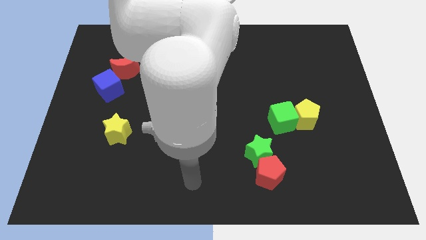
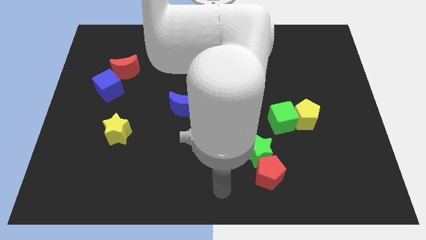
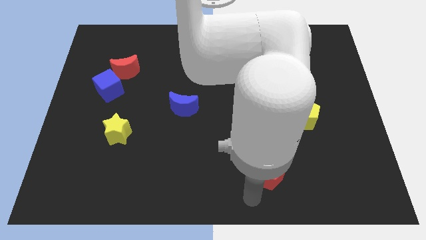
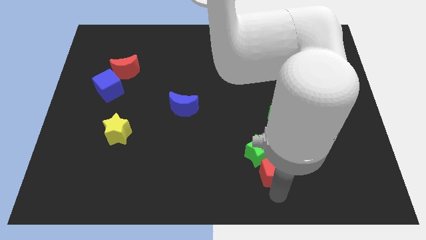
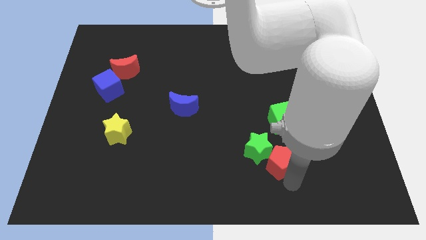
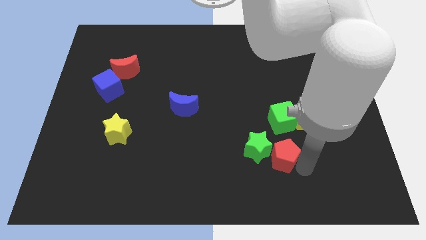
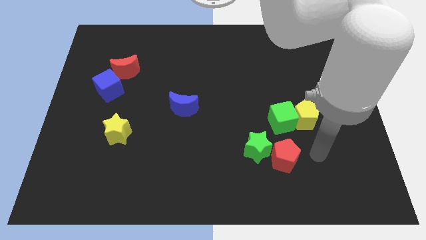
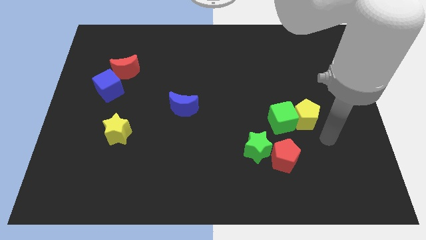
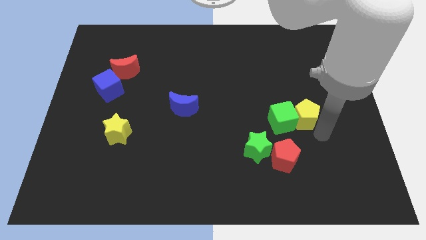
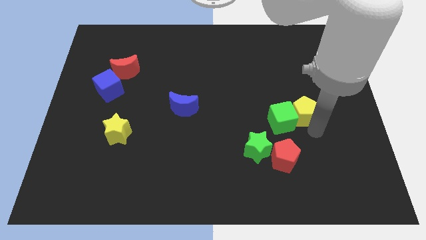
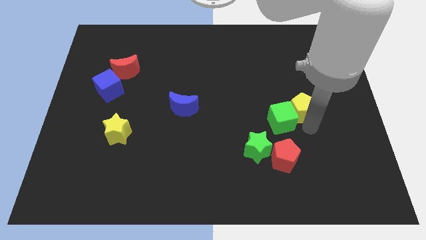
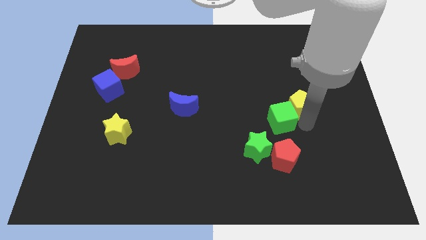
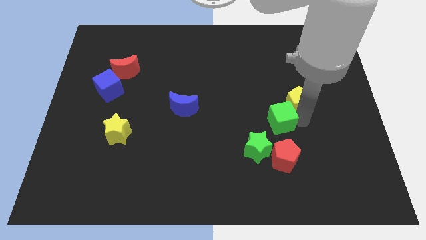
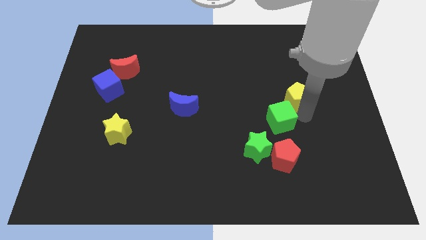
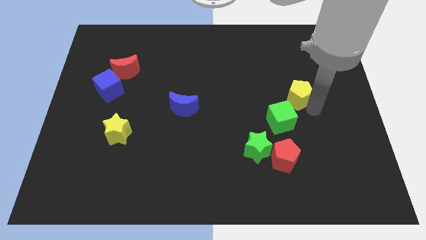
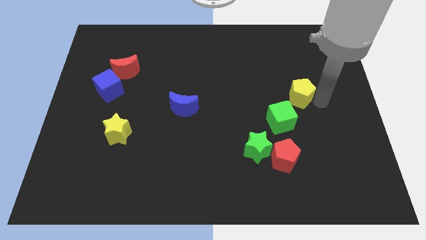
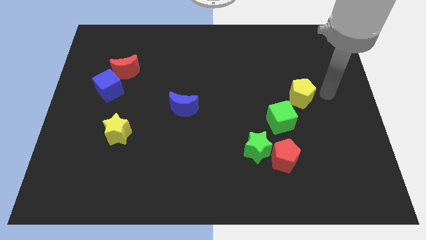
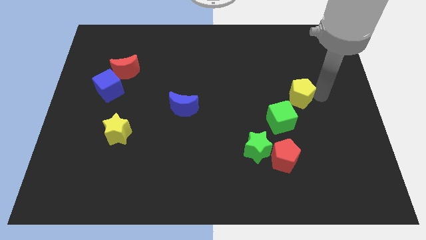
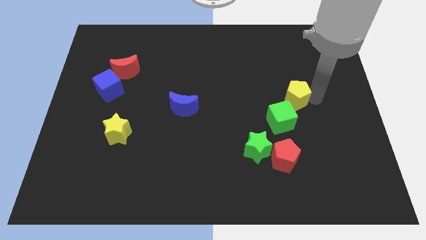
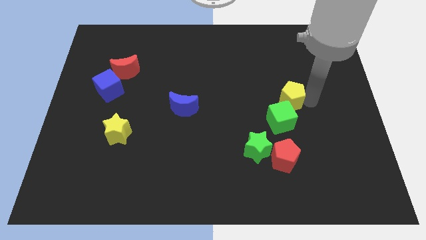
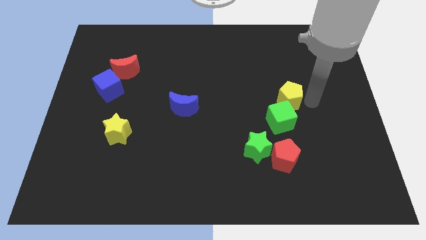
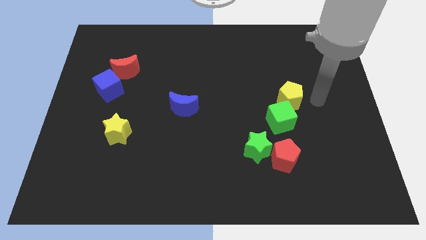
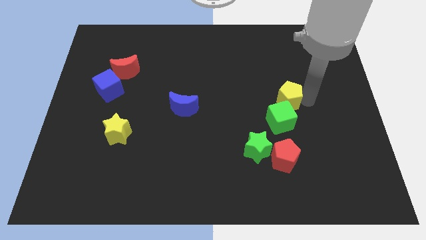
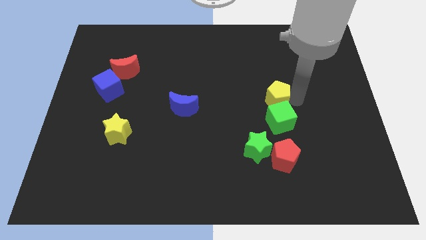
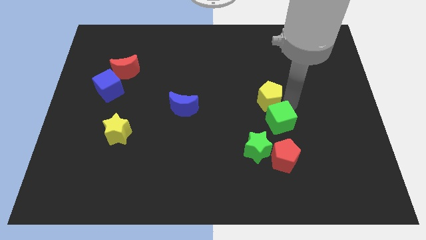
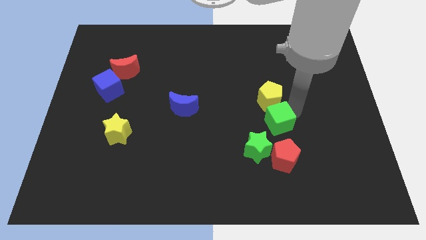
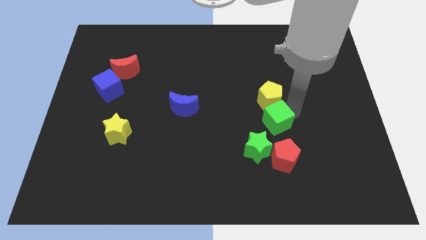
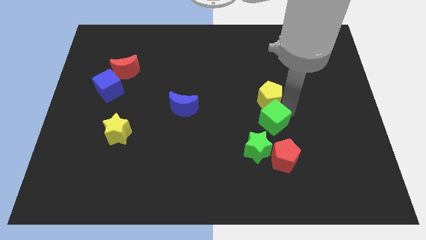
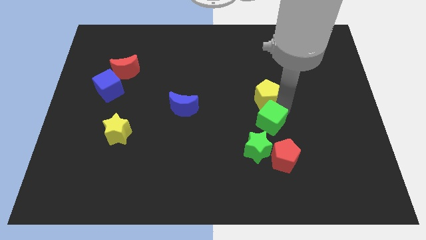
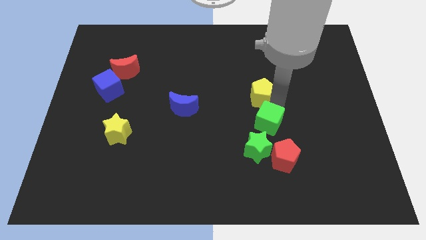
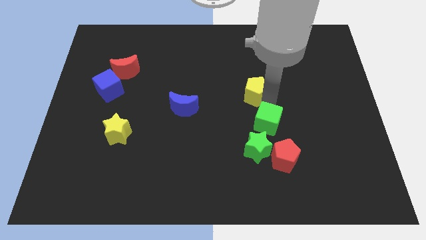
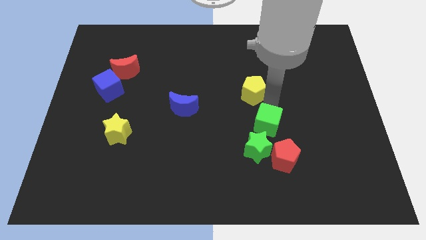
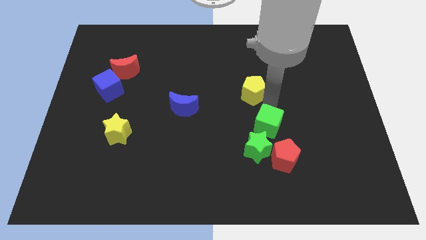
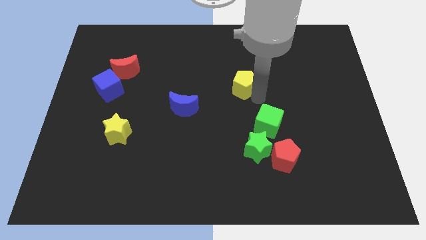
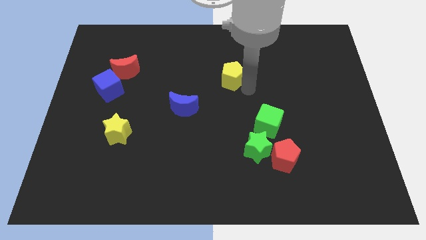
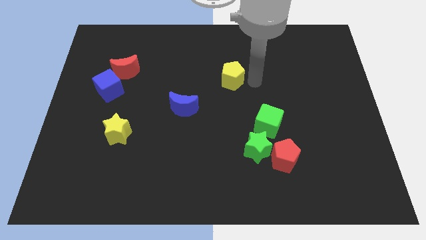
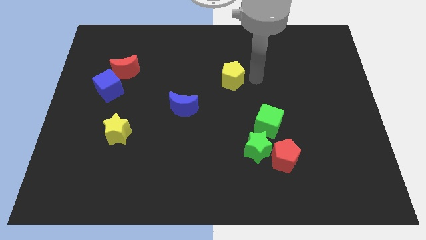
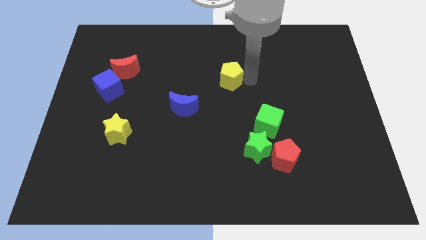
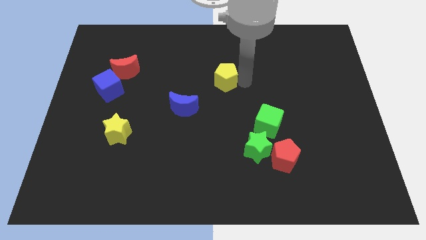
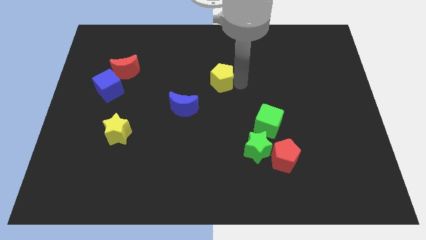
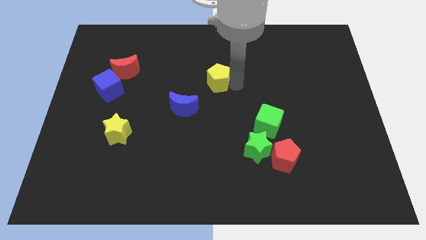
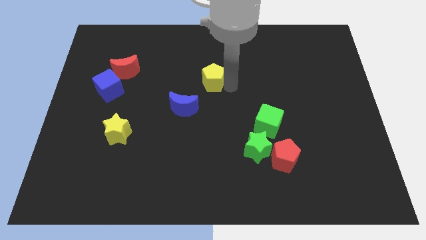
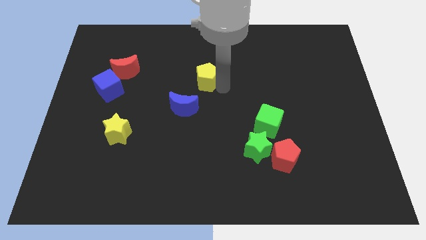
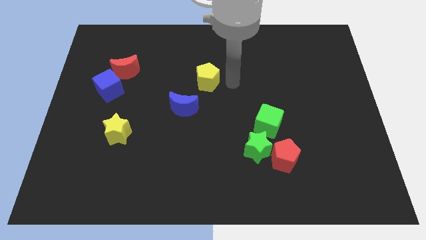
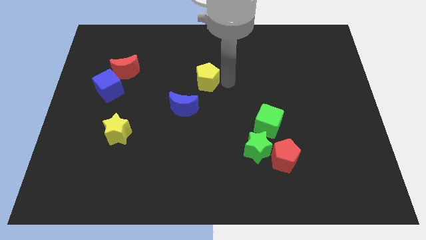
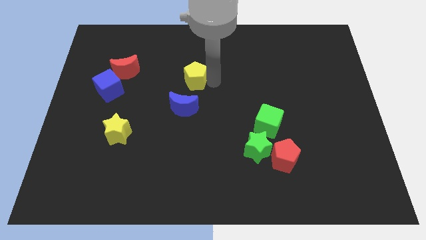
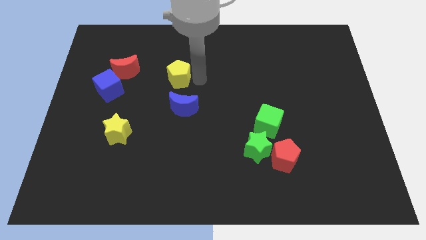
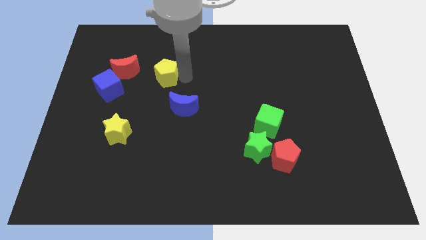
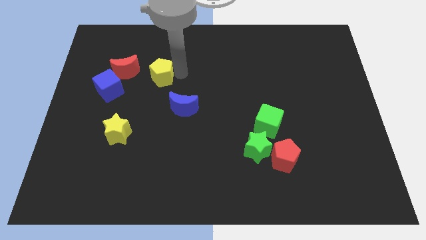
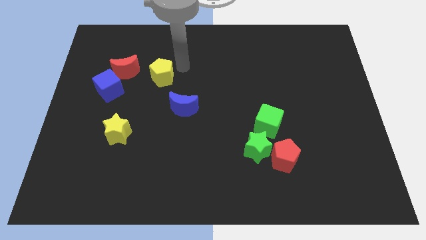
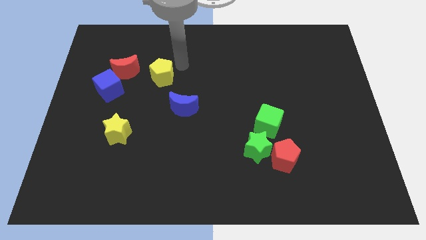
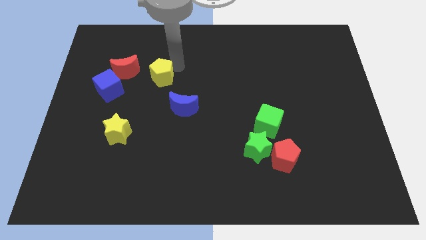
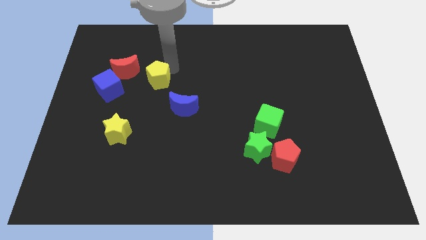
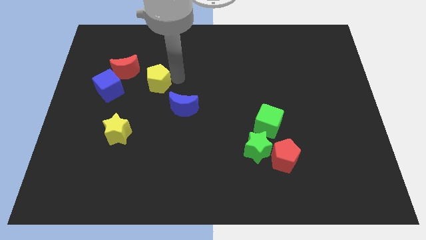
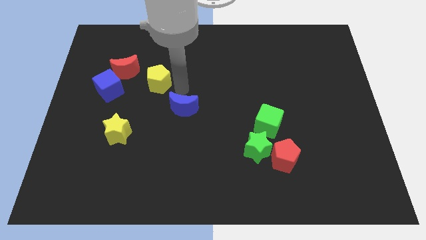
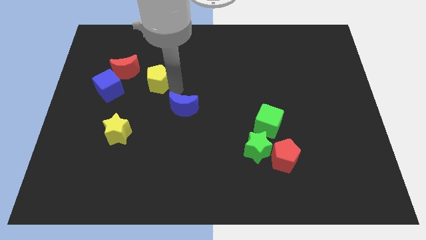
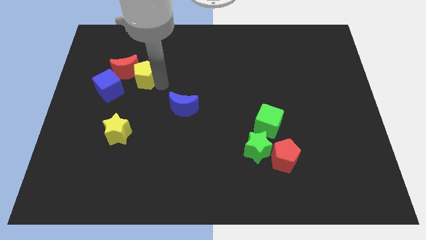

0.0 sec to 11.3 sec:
push the yellow pentagon next to the red moon

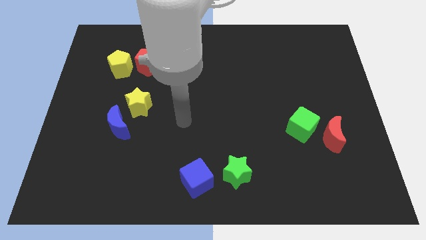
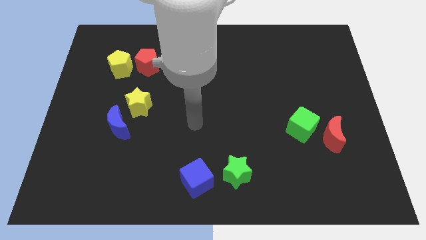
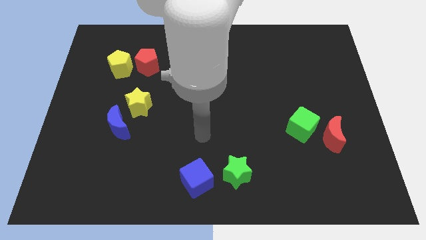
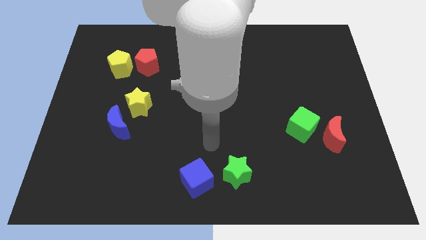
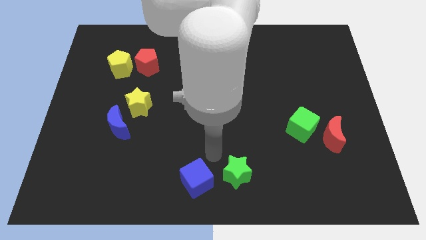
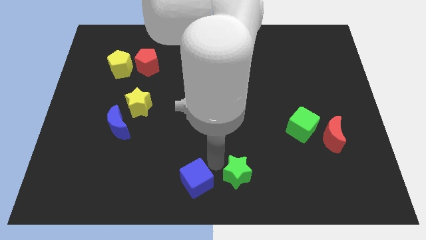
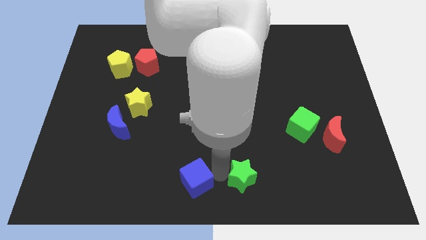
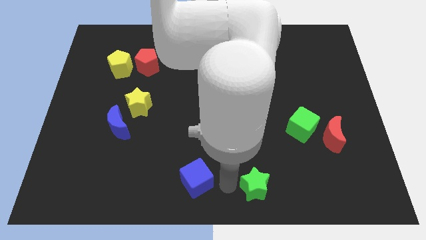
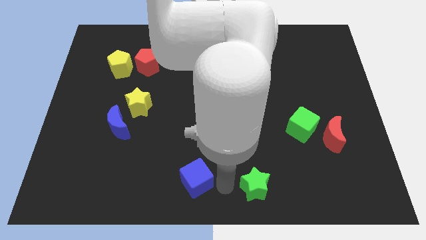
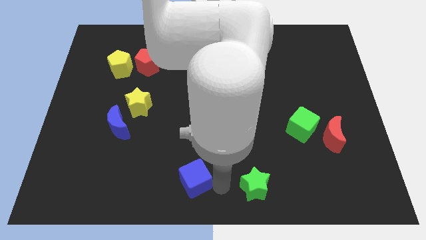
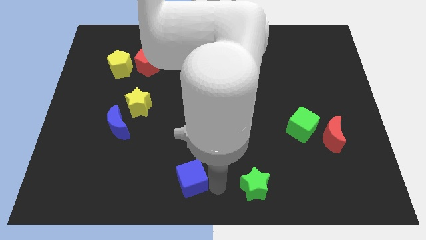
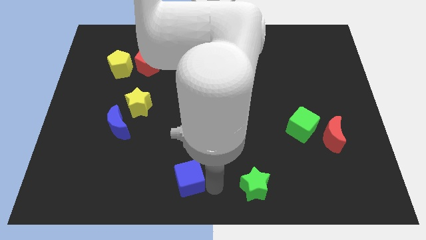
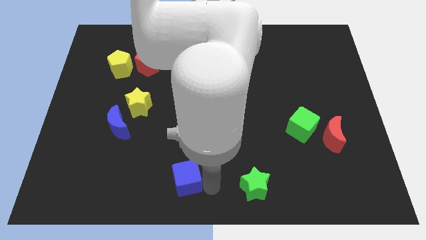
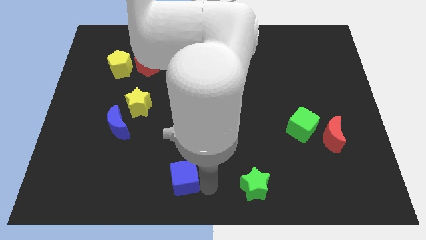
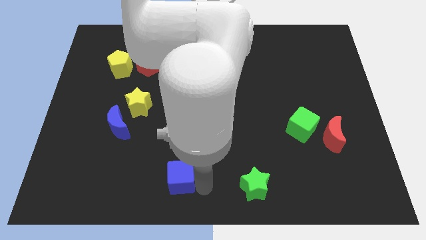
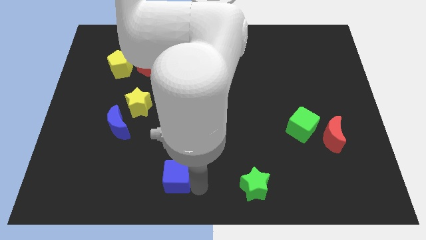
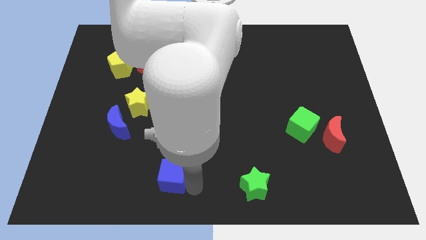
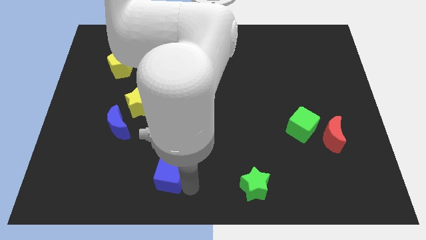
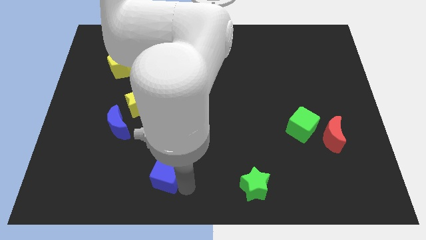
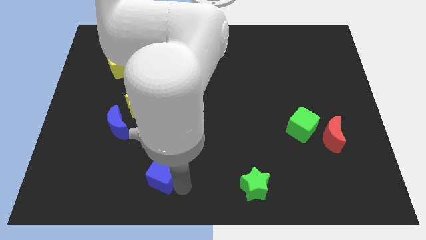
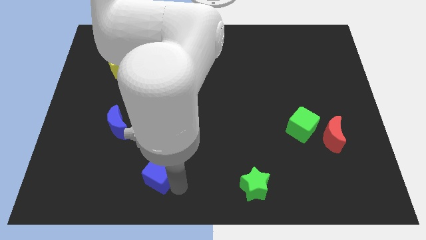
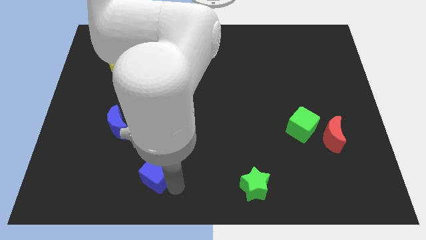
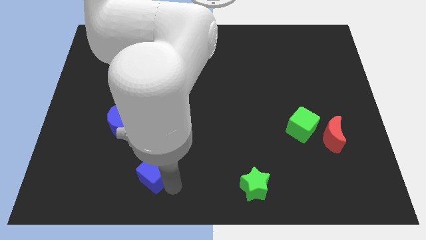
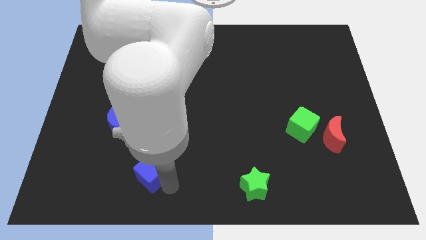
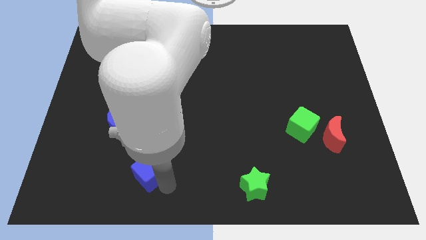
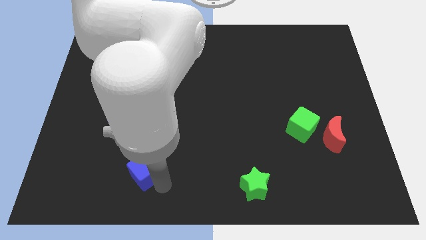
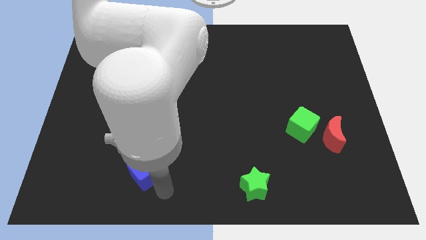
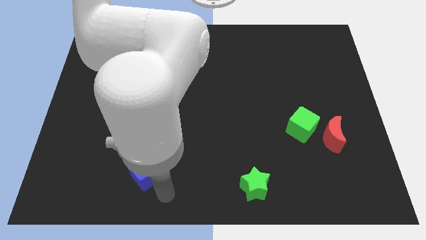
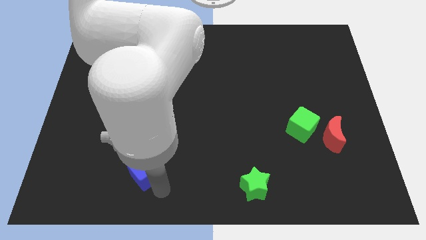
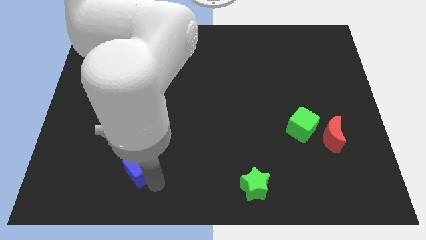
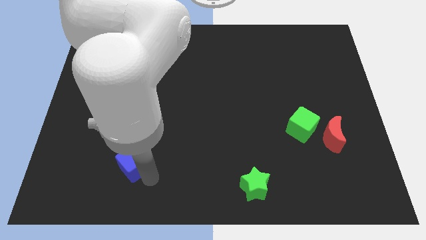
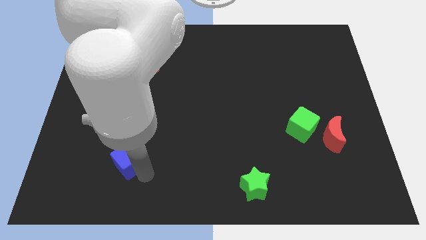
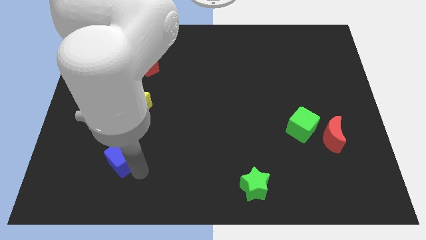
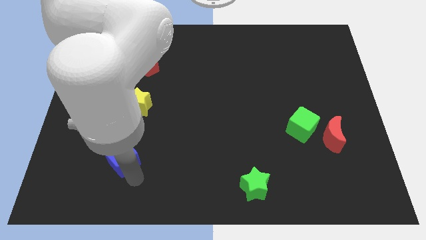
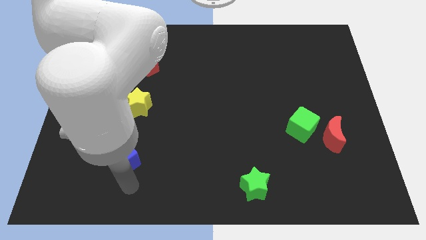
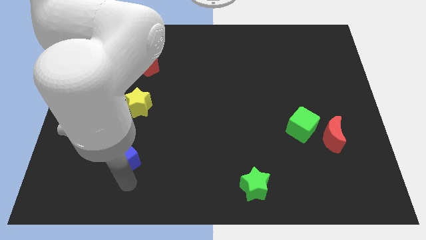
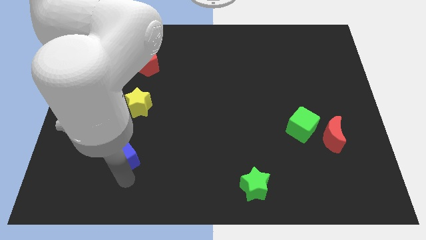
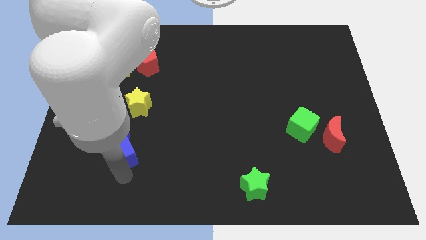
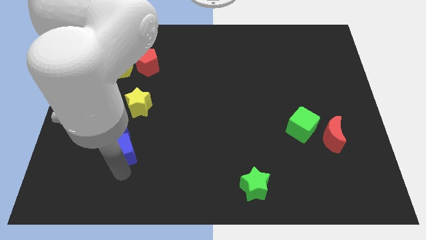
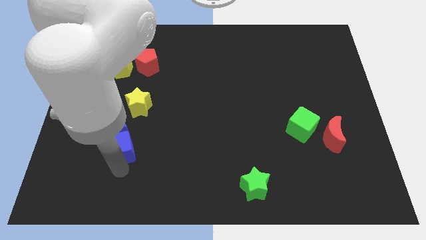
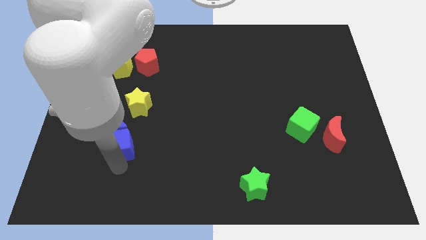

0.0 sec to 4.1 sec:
put the blue cube to the blue moon
